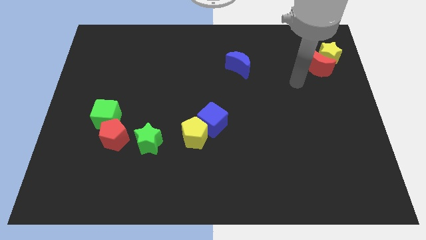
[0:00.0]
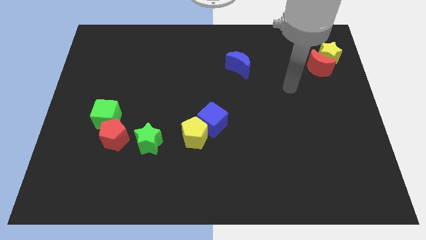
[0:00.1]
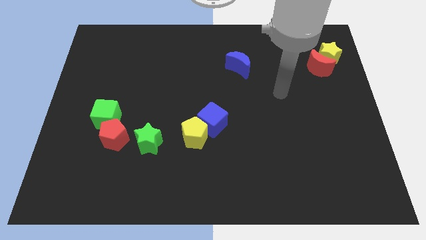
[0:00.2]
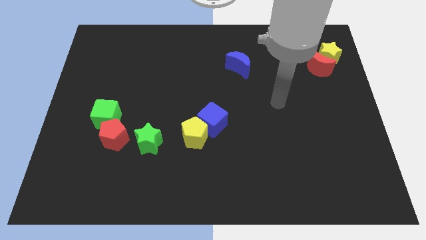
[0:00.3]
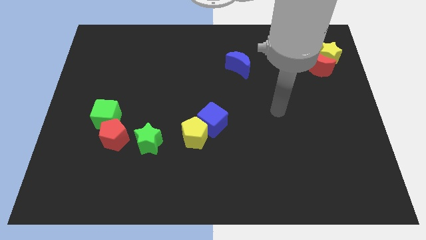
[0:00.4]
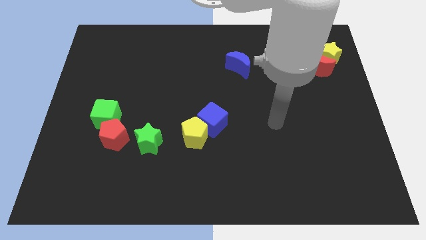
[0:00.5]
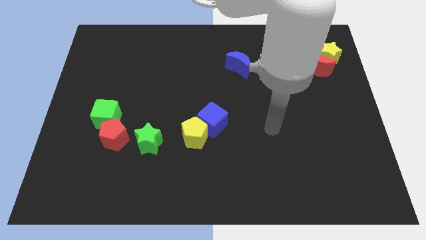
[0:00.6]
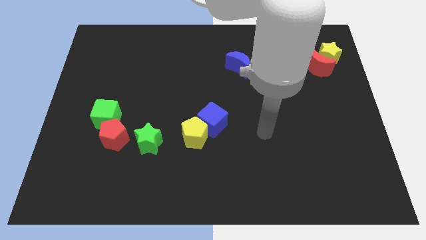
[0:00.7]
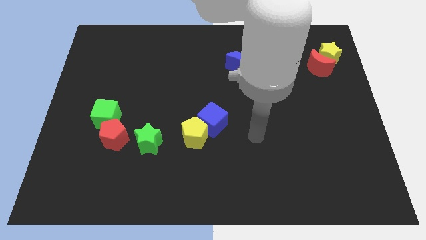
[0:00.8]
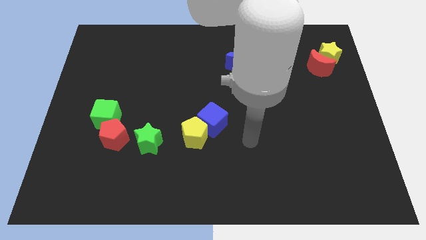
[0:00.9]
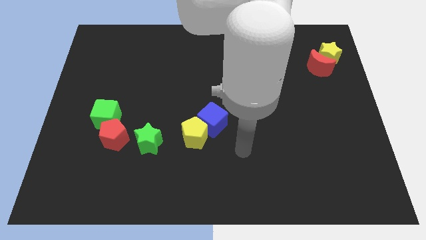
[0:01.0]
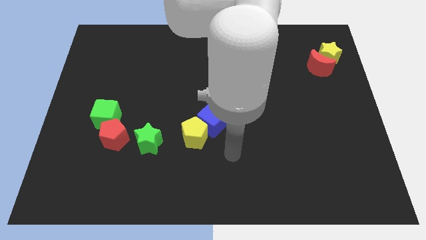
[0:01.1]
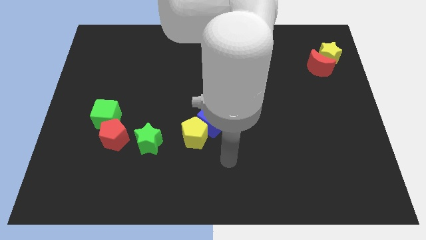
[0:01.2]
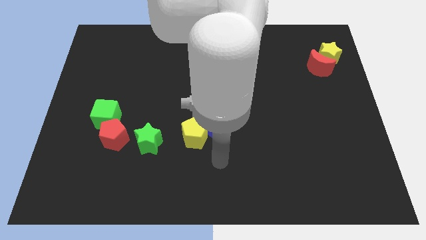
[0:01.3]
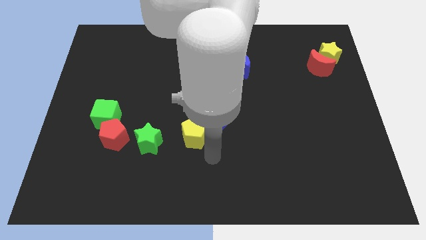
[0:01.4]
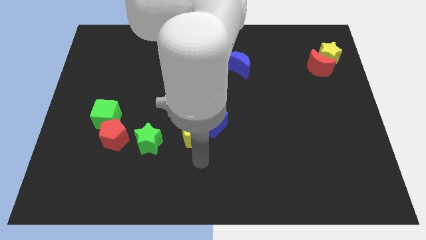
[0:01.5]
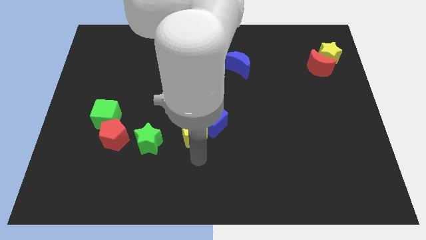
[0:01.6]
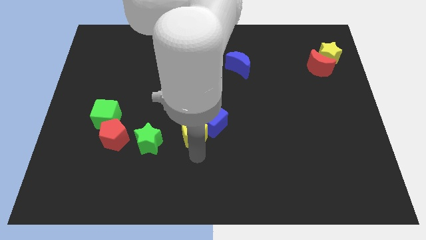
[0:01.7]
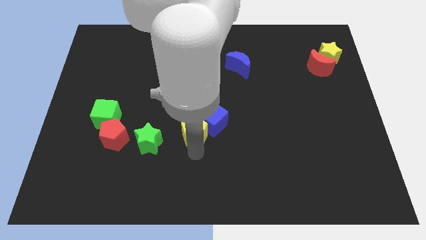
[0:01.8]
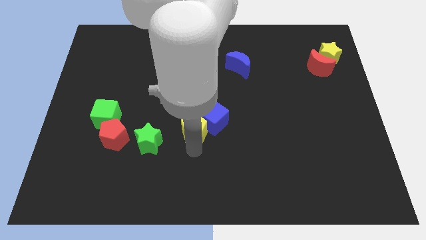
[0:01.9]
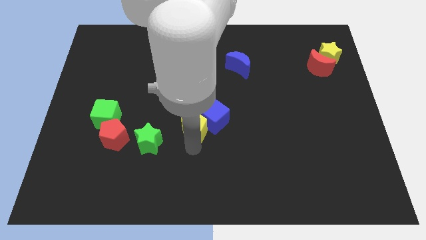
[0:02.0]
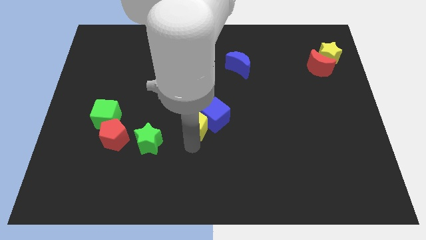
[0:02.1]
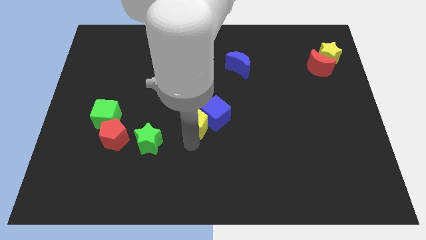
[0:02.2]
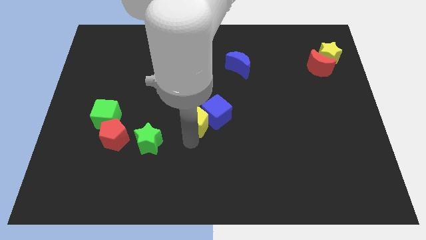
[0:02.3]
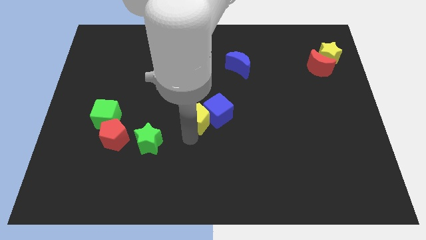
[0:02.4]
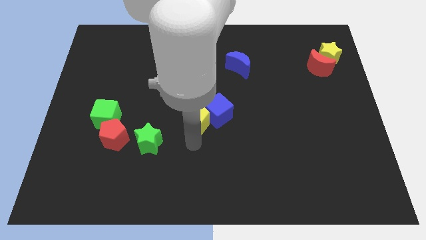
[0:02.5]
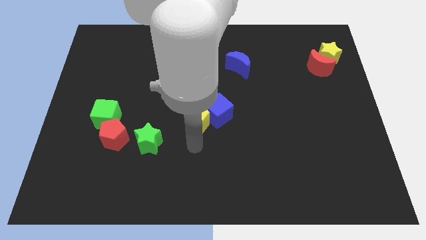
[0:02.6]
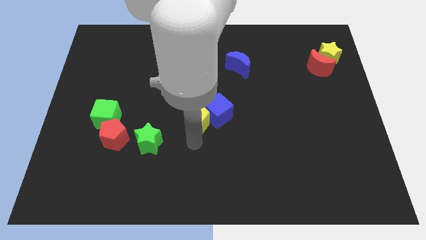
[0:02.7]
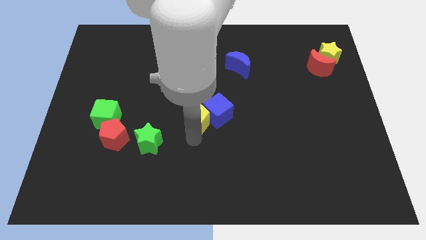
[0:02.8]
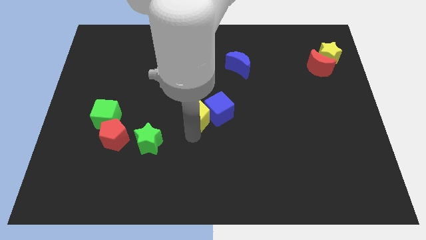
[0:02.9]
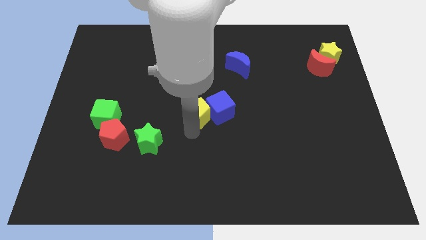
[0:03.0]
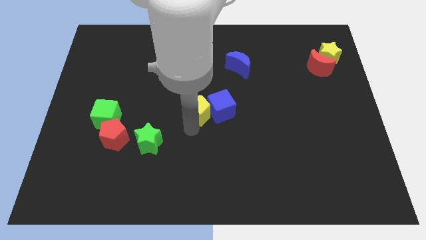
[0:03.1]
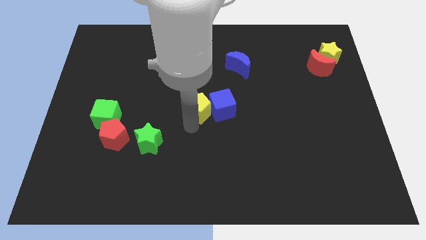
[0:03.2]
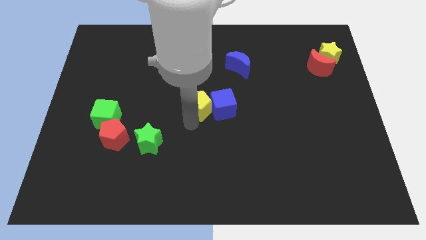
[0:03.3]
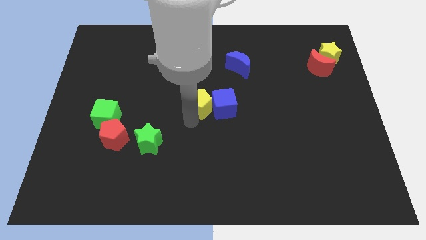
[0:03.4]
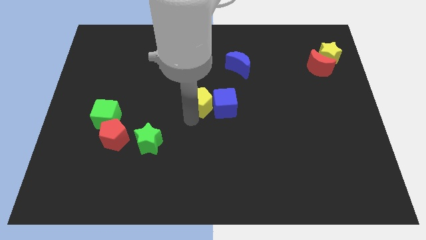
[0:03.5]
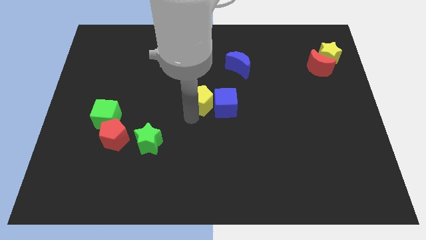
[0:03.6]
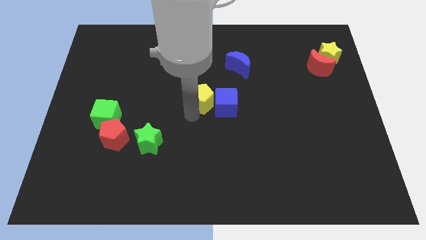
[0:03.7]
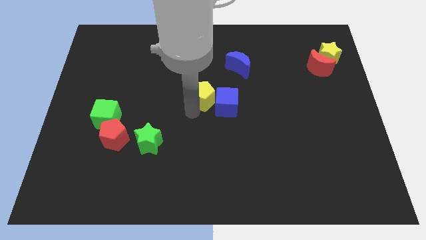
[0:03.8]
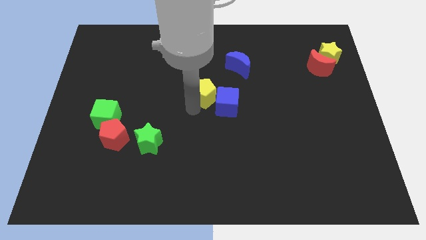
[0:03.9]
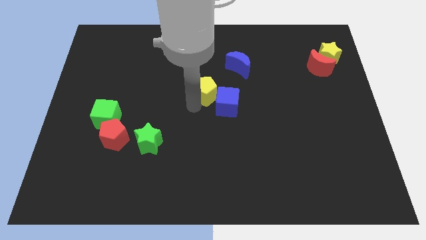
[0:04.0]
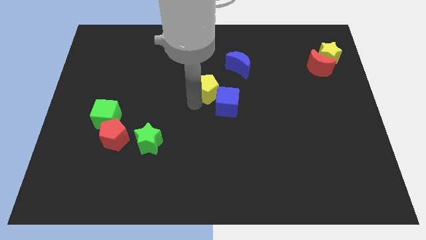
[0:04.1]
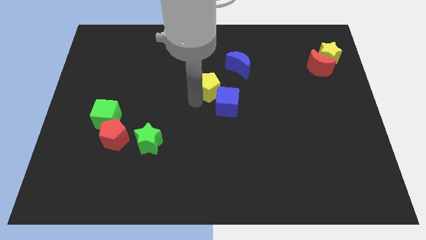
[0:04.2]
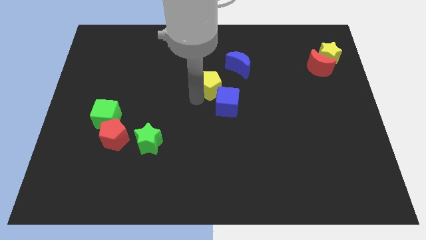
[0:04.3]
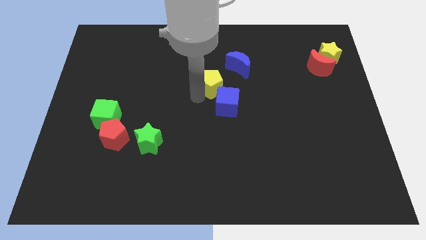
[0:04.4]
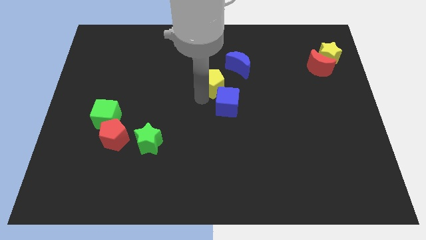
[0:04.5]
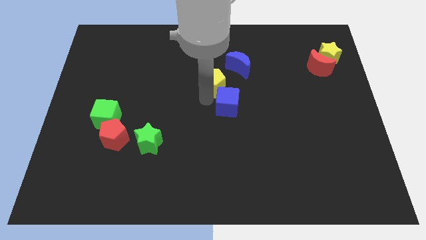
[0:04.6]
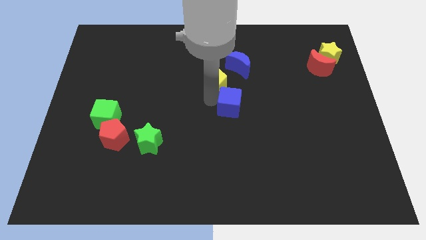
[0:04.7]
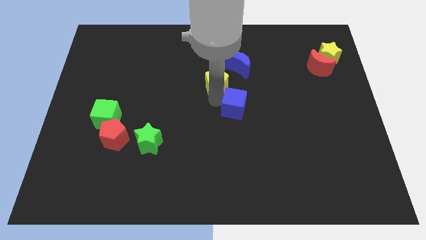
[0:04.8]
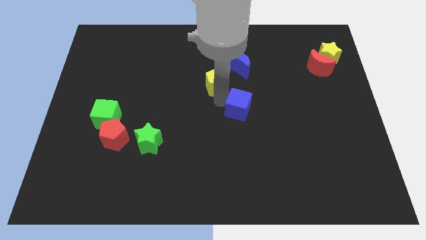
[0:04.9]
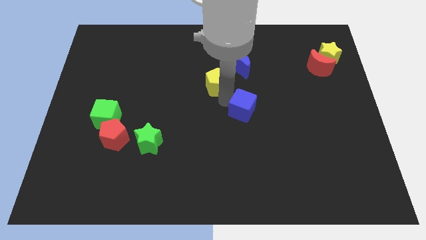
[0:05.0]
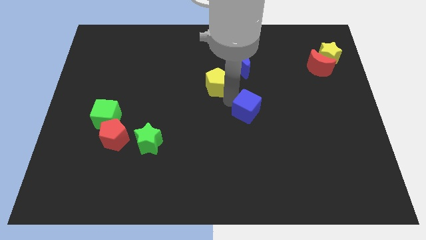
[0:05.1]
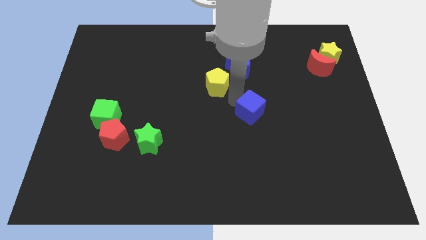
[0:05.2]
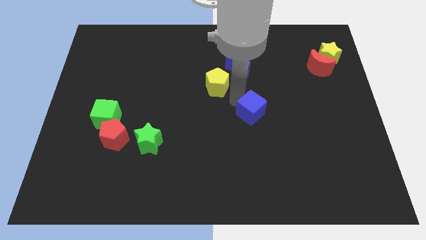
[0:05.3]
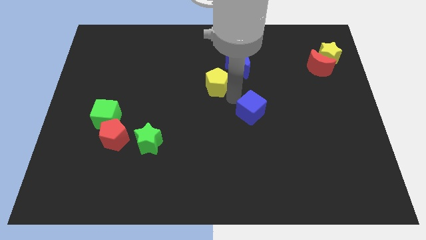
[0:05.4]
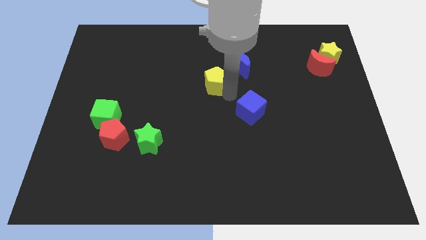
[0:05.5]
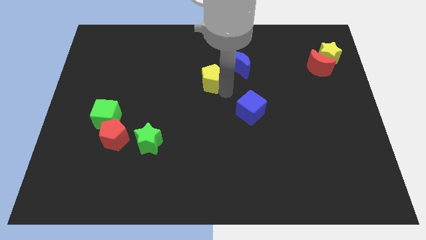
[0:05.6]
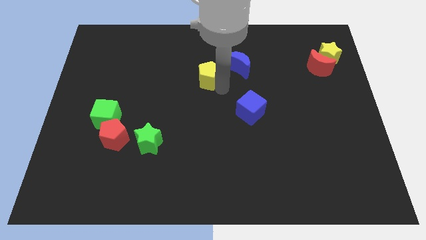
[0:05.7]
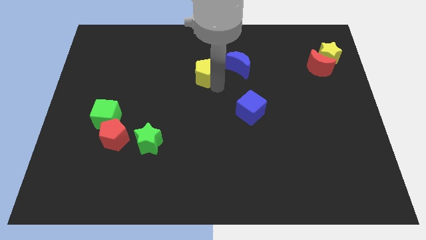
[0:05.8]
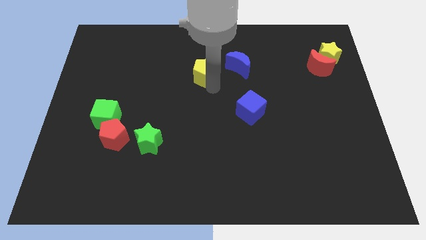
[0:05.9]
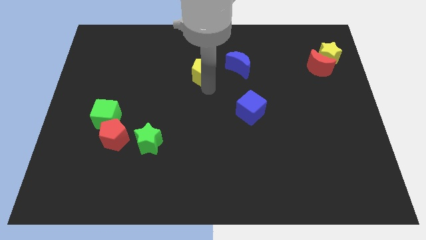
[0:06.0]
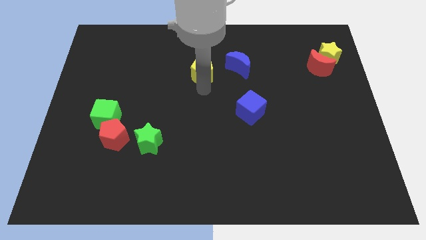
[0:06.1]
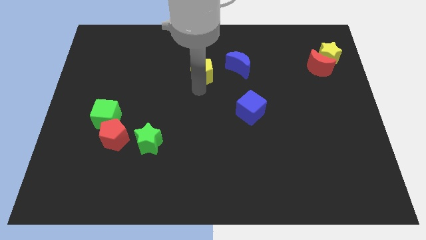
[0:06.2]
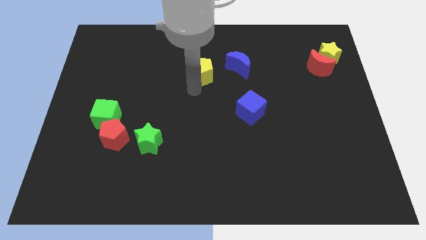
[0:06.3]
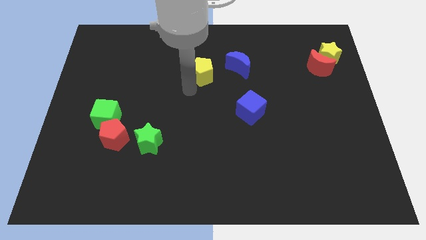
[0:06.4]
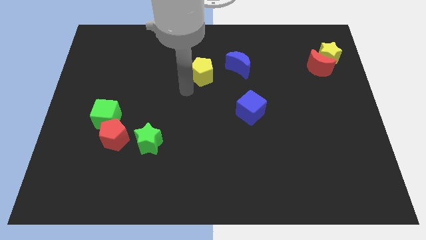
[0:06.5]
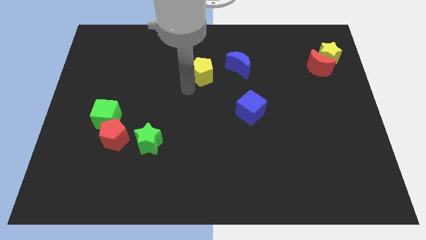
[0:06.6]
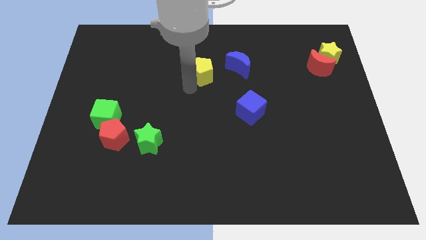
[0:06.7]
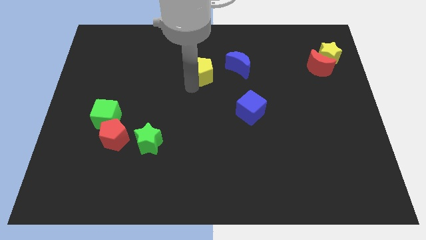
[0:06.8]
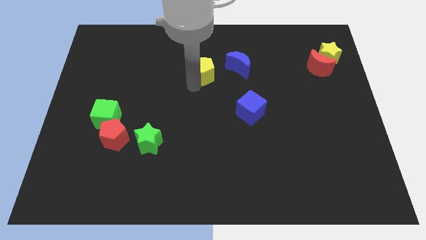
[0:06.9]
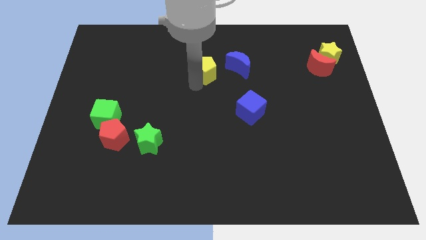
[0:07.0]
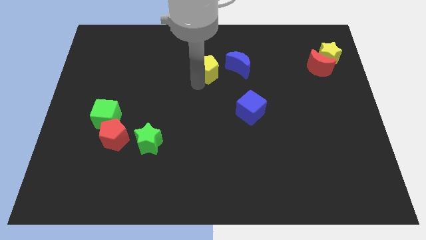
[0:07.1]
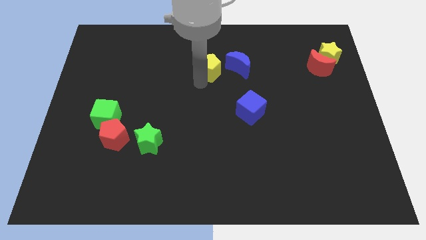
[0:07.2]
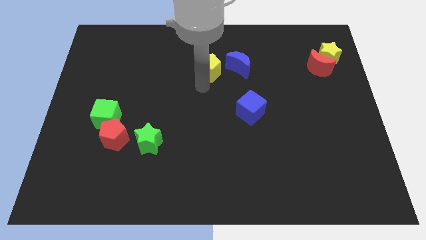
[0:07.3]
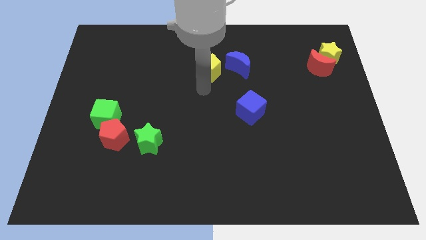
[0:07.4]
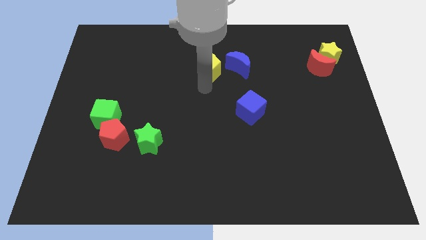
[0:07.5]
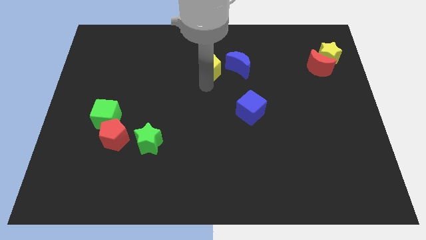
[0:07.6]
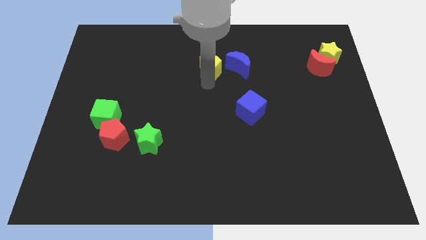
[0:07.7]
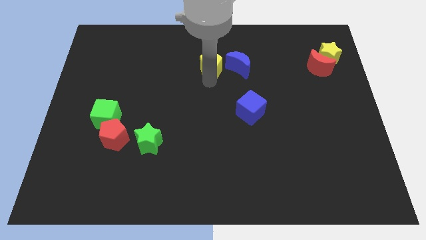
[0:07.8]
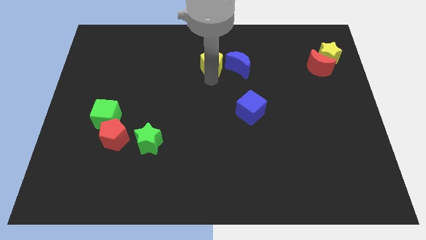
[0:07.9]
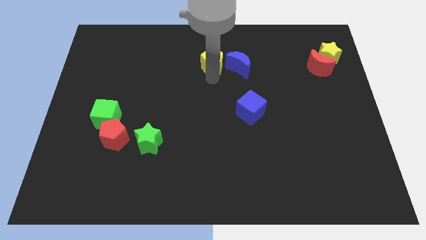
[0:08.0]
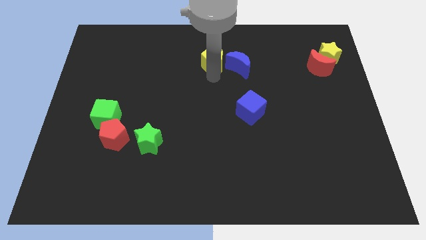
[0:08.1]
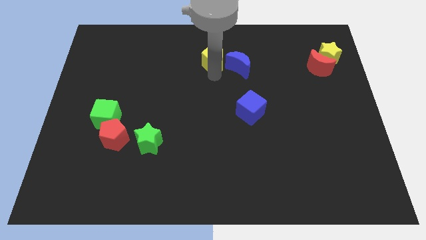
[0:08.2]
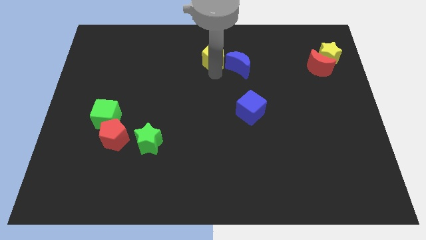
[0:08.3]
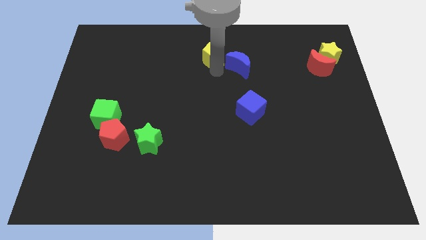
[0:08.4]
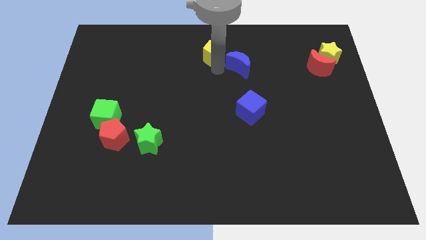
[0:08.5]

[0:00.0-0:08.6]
push the yellow pentagon to the top side
